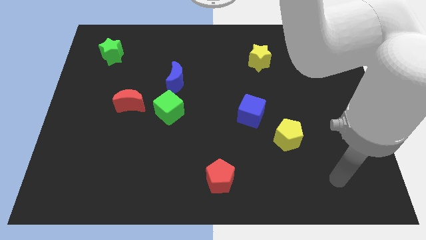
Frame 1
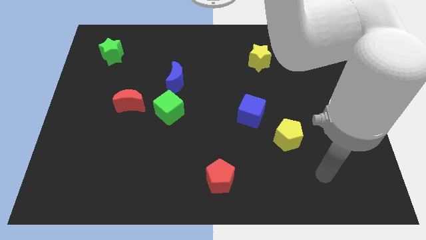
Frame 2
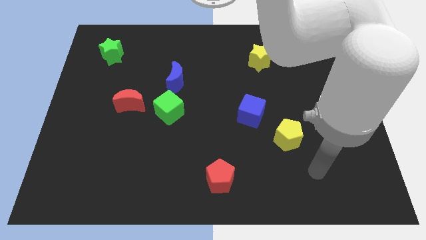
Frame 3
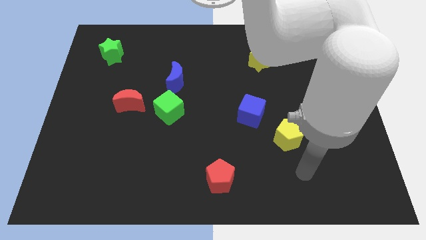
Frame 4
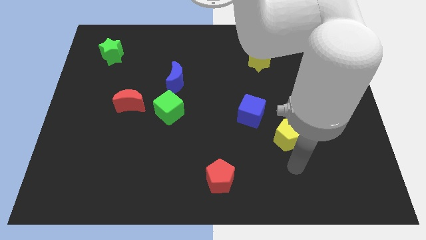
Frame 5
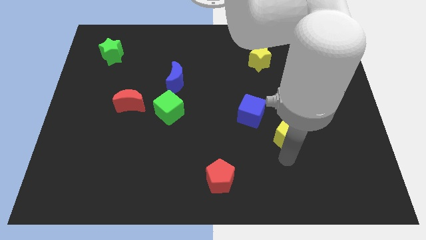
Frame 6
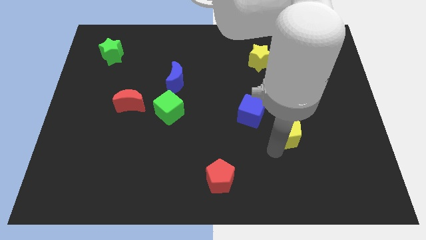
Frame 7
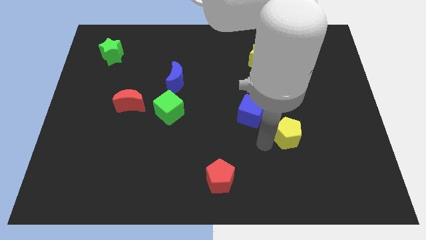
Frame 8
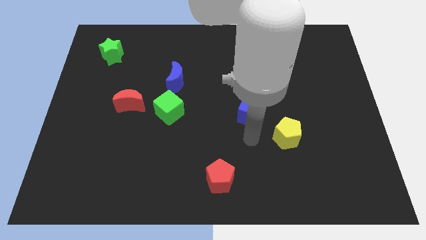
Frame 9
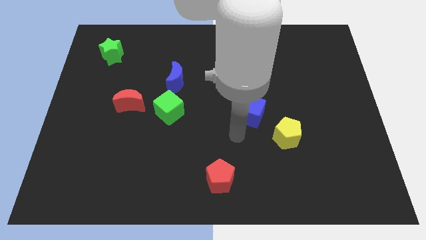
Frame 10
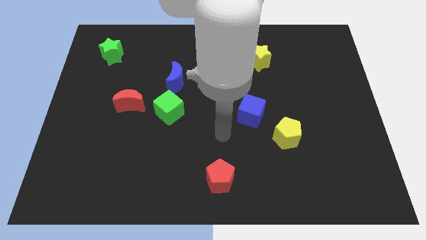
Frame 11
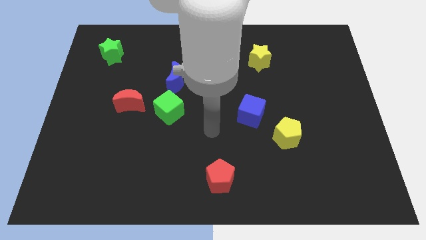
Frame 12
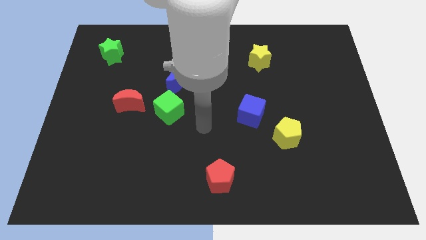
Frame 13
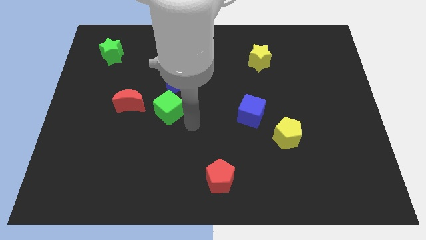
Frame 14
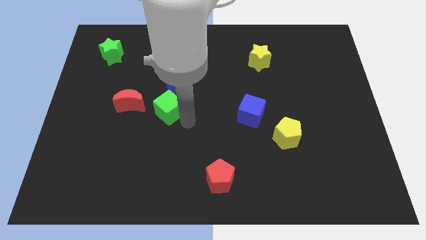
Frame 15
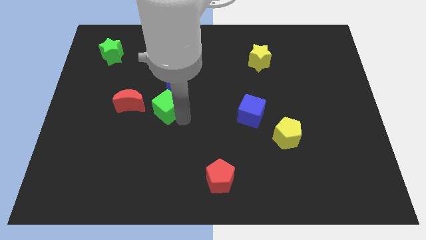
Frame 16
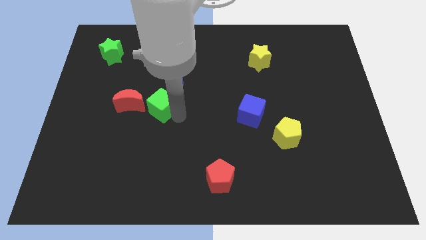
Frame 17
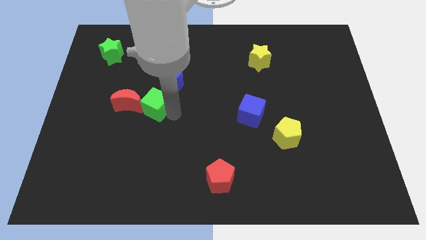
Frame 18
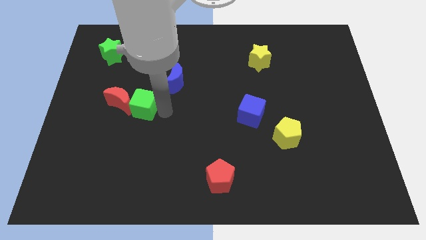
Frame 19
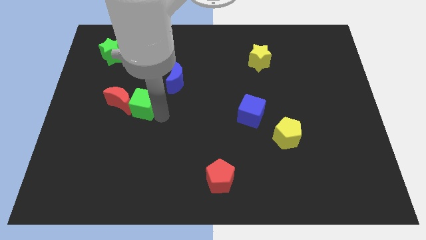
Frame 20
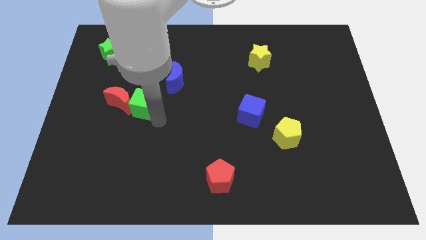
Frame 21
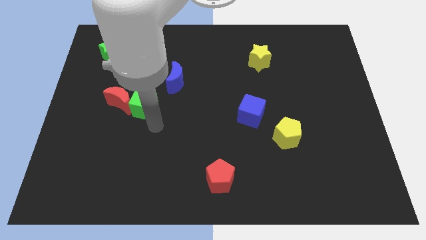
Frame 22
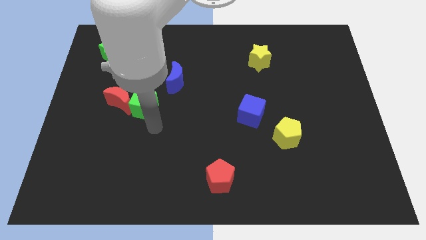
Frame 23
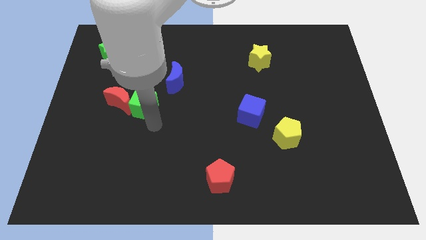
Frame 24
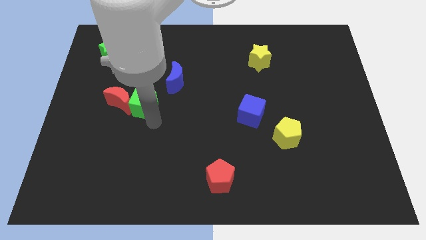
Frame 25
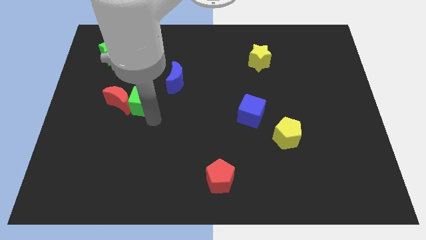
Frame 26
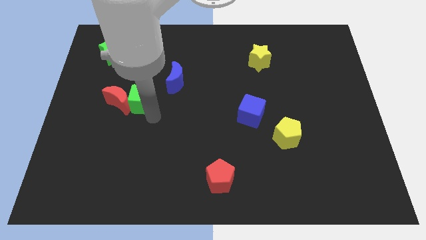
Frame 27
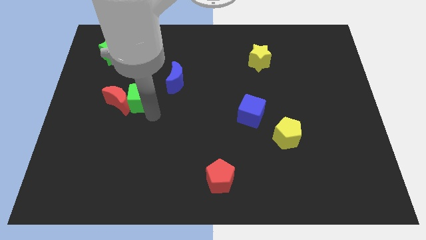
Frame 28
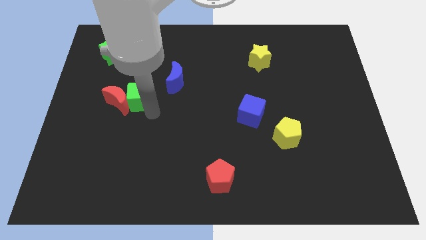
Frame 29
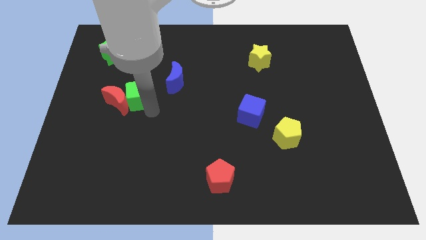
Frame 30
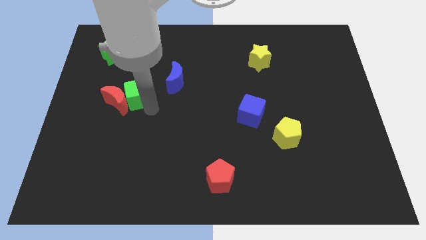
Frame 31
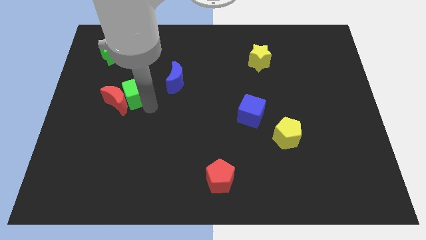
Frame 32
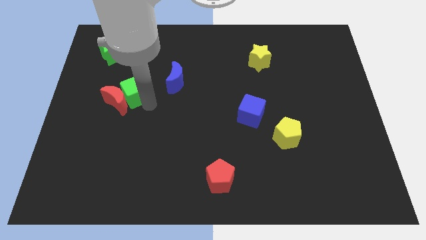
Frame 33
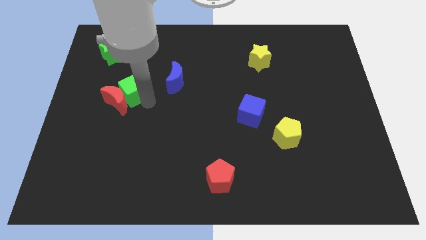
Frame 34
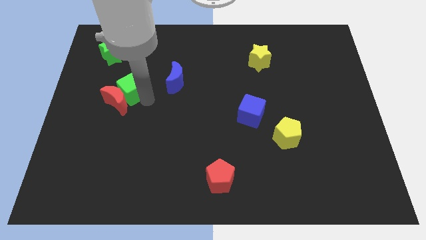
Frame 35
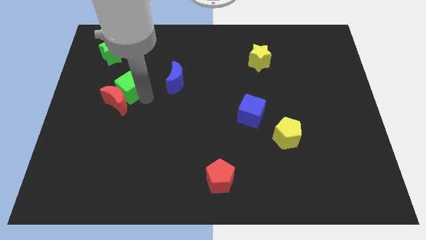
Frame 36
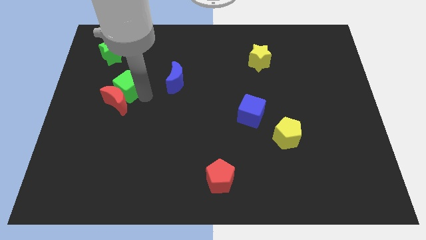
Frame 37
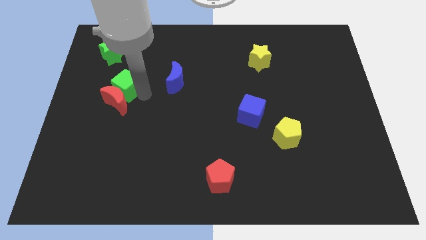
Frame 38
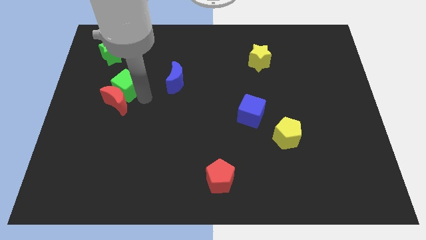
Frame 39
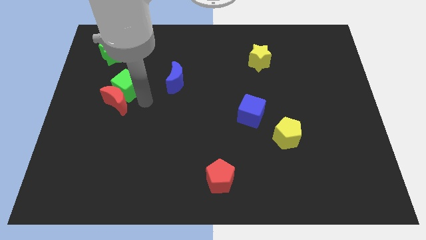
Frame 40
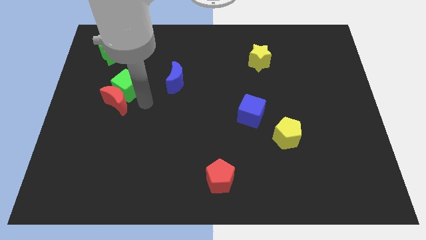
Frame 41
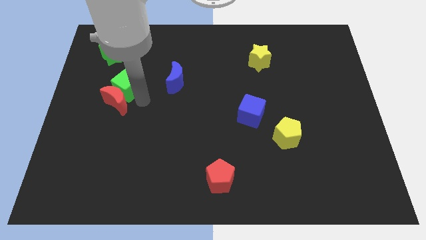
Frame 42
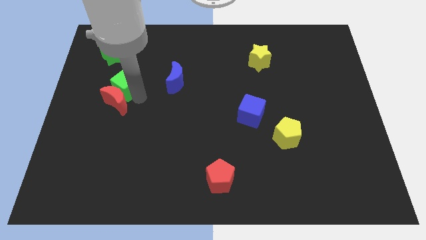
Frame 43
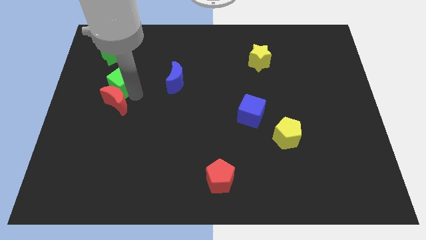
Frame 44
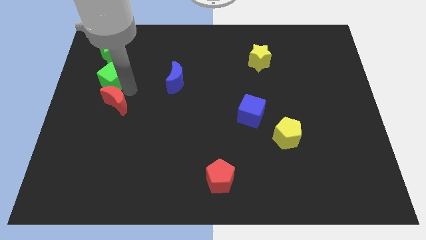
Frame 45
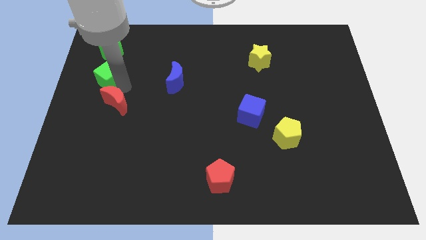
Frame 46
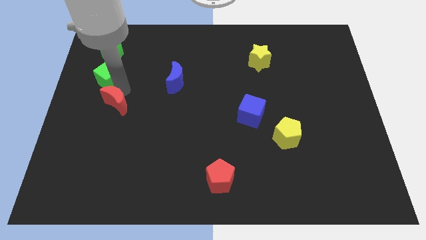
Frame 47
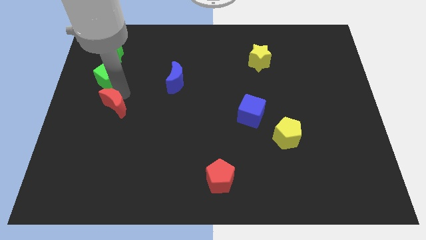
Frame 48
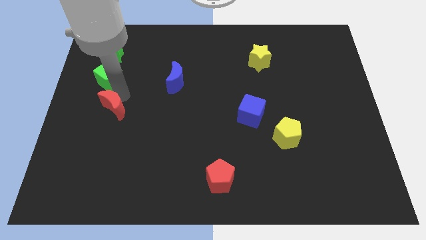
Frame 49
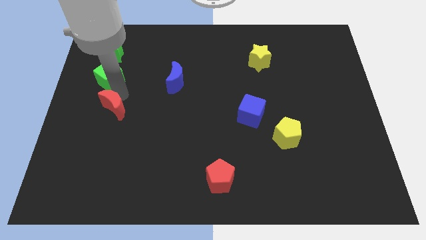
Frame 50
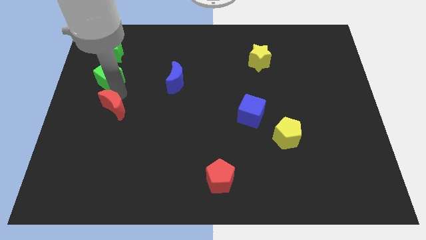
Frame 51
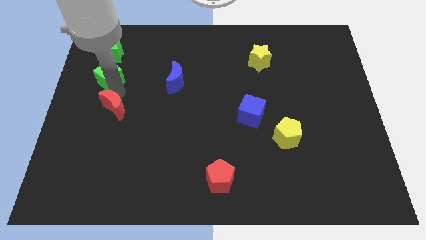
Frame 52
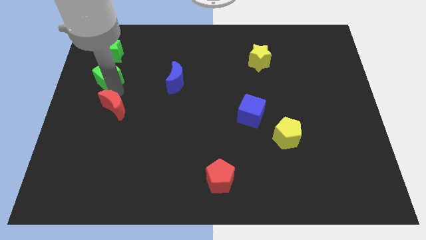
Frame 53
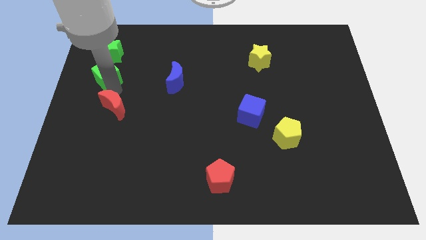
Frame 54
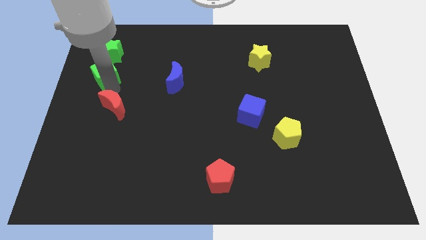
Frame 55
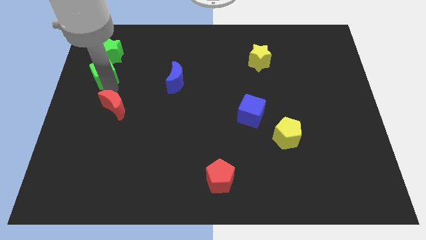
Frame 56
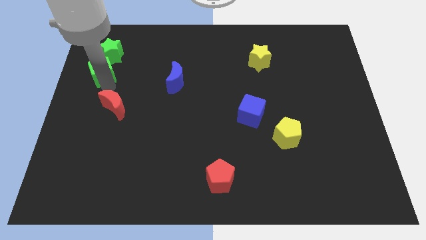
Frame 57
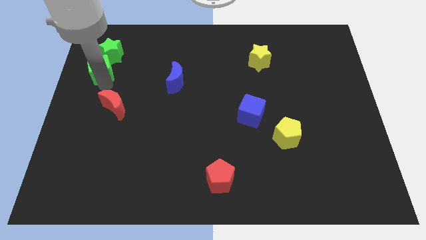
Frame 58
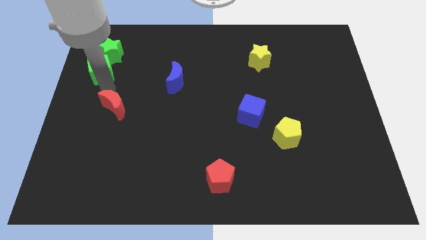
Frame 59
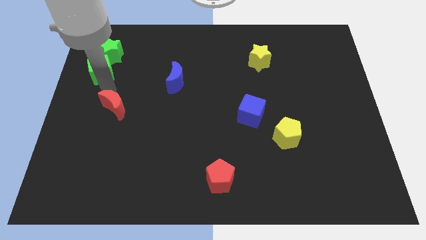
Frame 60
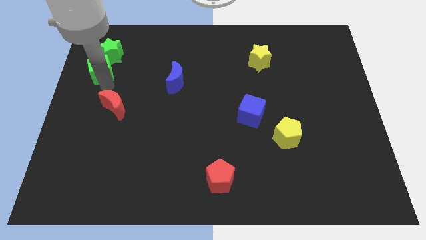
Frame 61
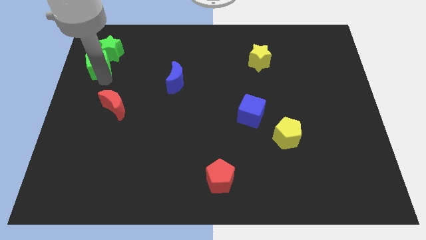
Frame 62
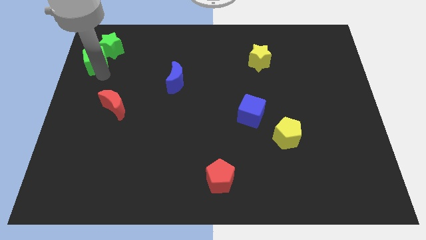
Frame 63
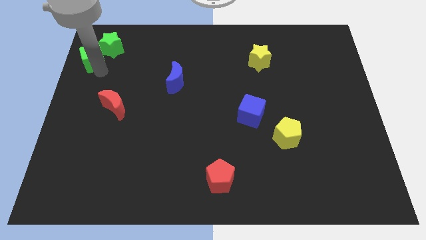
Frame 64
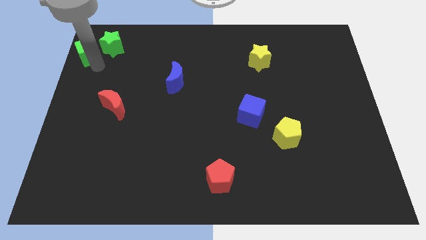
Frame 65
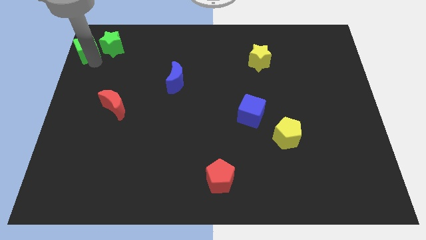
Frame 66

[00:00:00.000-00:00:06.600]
move the green cube to the top left of the board
